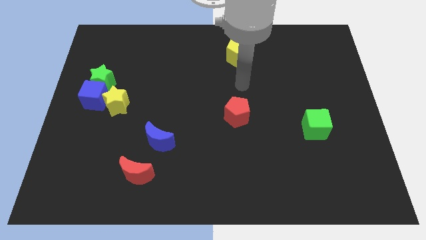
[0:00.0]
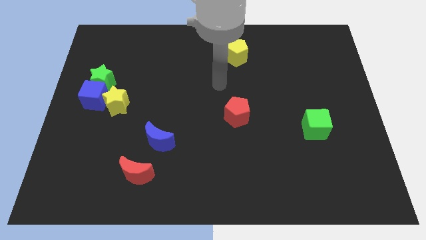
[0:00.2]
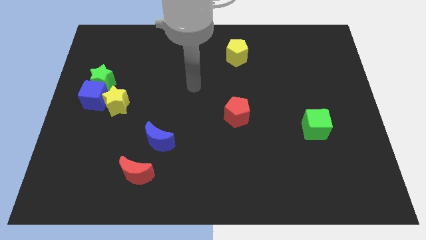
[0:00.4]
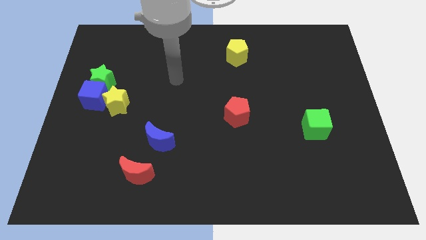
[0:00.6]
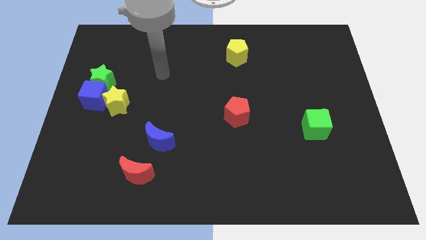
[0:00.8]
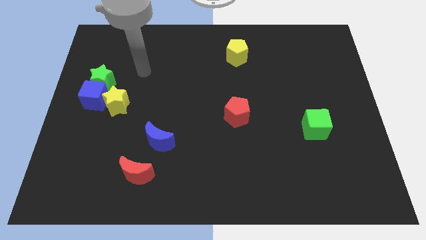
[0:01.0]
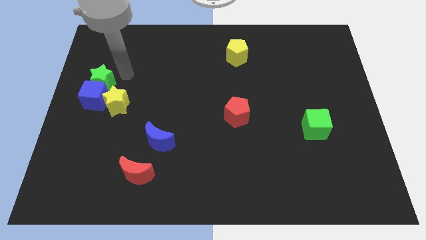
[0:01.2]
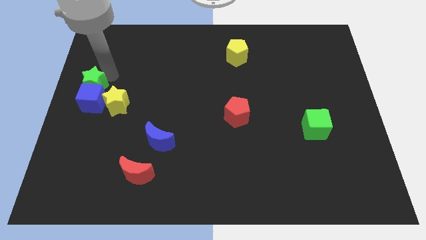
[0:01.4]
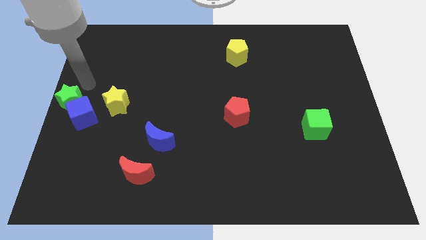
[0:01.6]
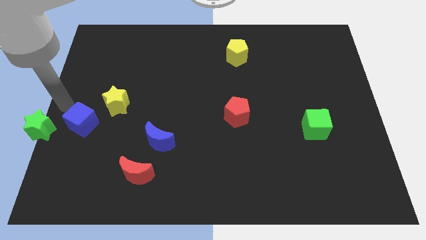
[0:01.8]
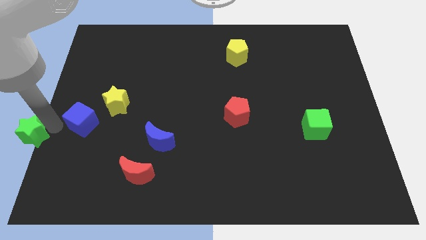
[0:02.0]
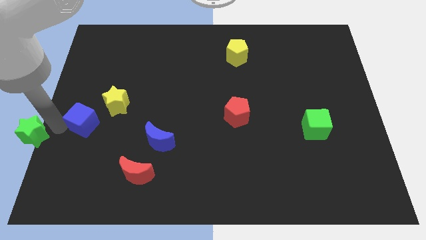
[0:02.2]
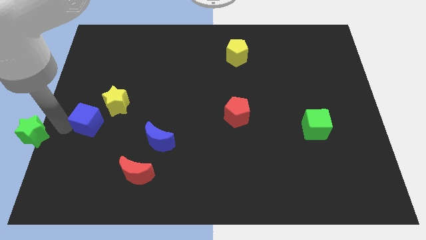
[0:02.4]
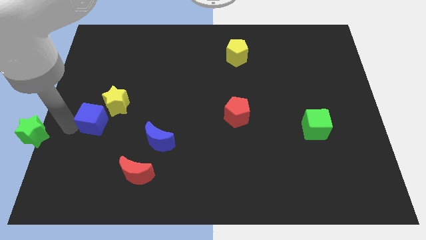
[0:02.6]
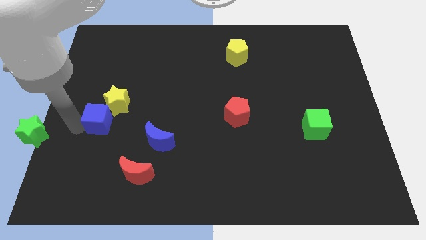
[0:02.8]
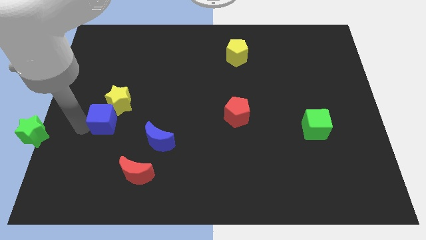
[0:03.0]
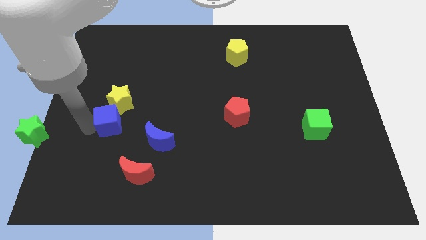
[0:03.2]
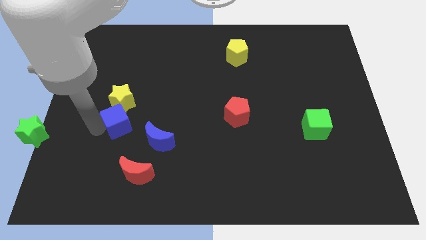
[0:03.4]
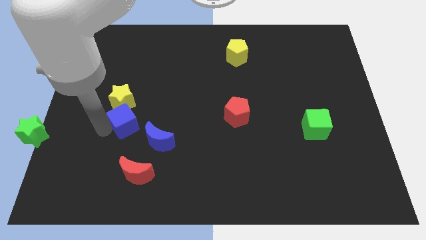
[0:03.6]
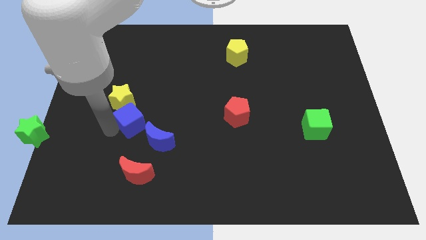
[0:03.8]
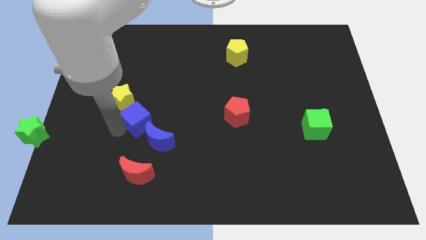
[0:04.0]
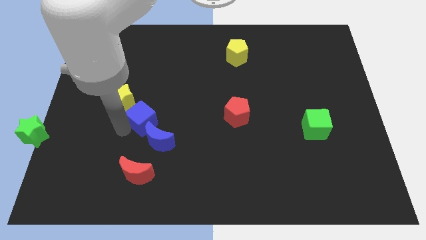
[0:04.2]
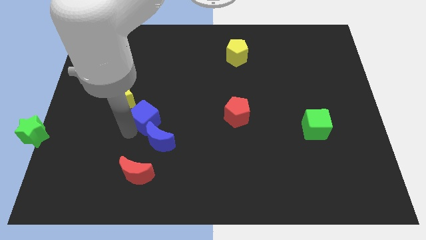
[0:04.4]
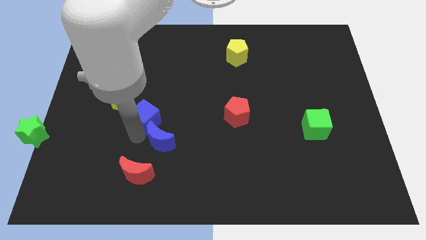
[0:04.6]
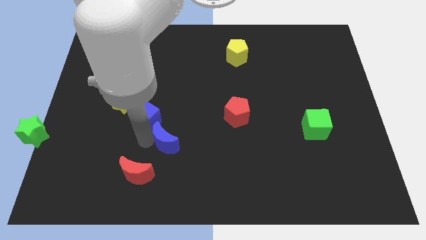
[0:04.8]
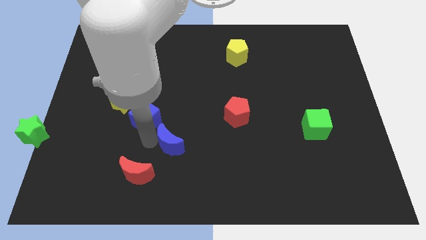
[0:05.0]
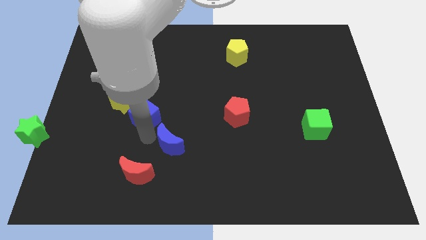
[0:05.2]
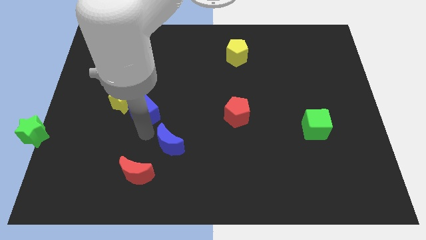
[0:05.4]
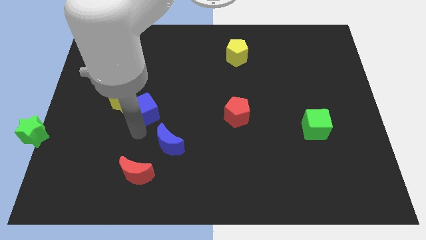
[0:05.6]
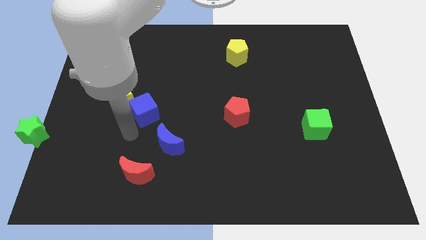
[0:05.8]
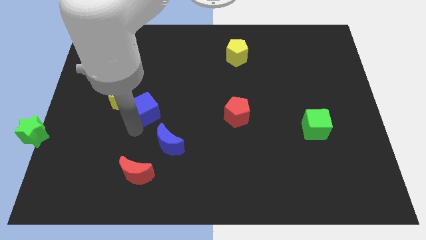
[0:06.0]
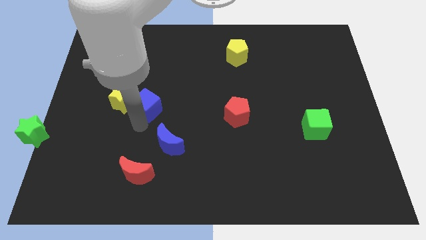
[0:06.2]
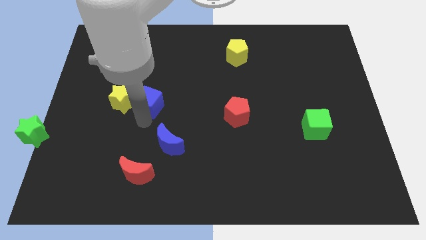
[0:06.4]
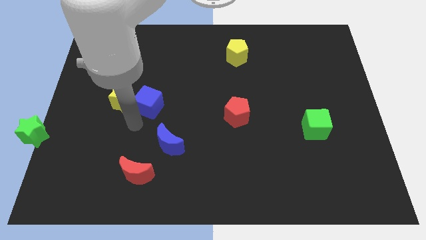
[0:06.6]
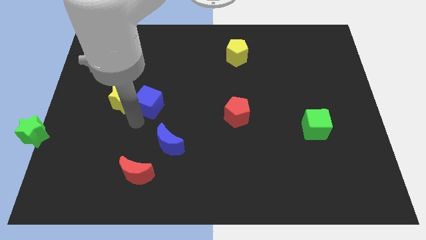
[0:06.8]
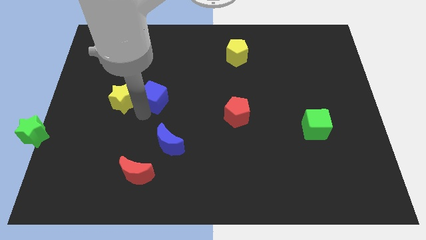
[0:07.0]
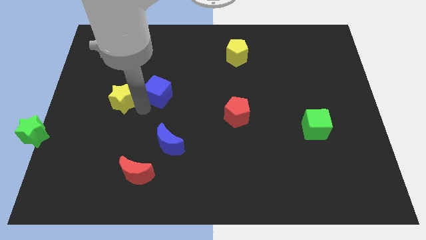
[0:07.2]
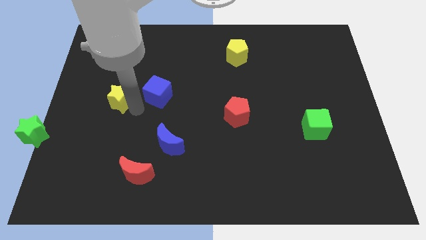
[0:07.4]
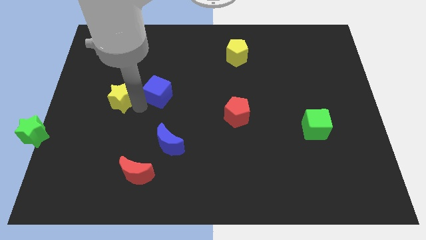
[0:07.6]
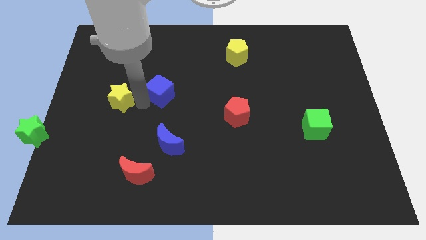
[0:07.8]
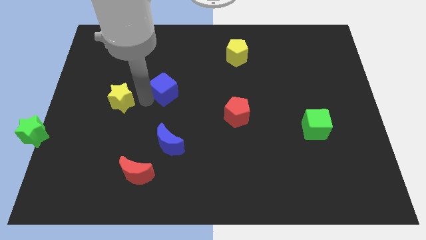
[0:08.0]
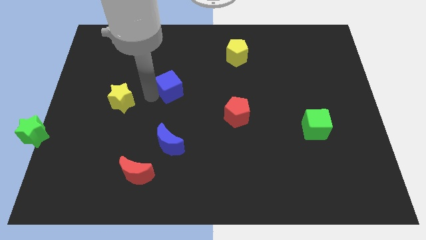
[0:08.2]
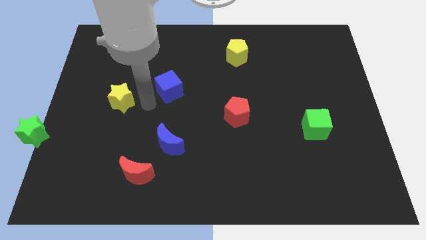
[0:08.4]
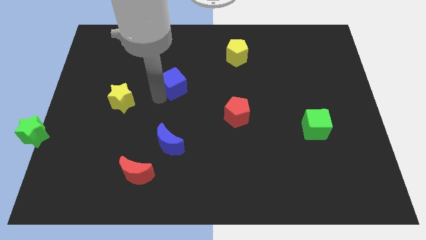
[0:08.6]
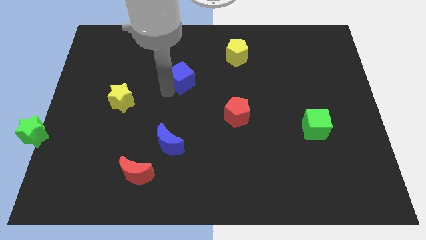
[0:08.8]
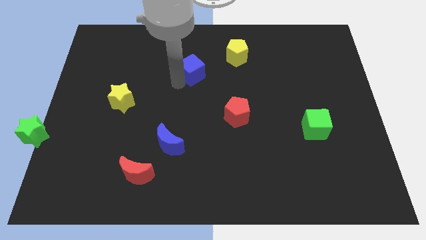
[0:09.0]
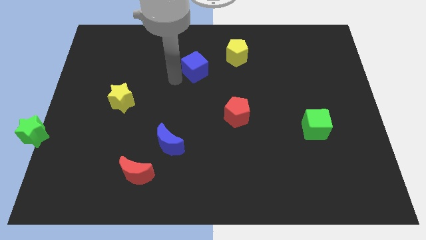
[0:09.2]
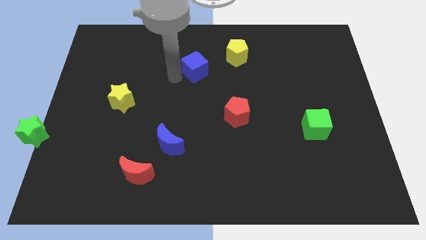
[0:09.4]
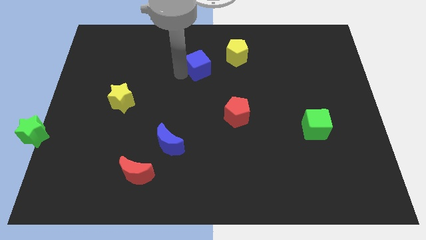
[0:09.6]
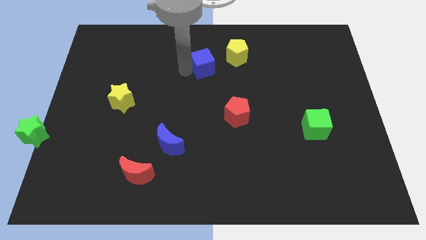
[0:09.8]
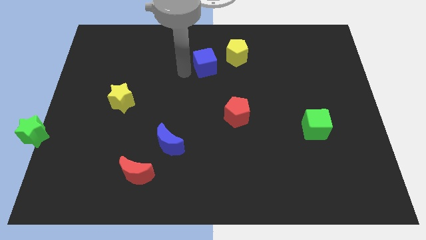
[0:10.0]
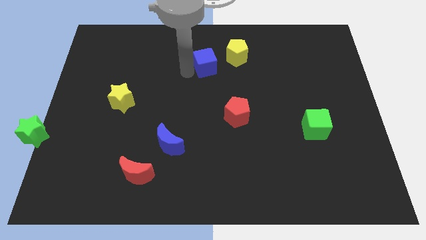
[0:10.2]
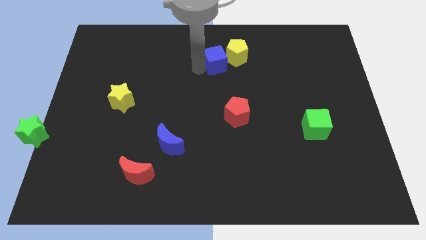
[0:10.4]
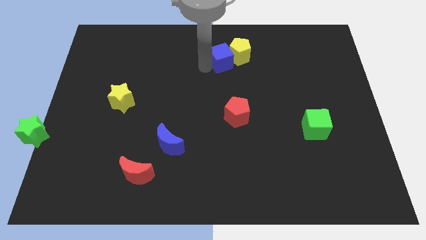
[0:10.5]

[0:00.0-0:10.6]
put the blue cube towards the yellow pentagon

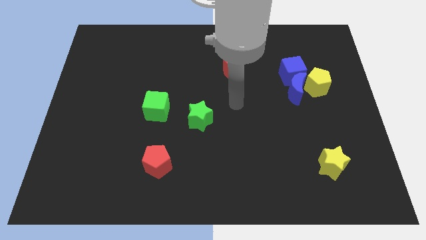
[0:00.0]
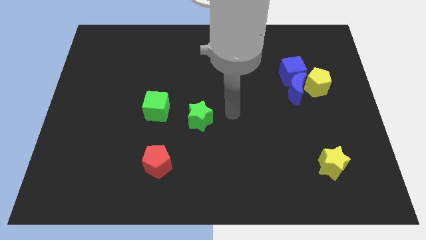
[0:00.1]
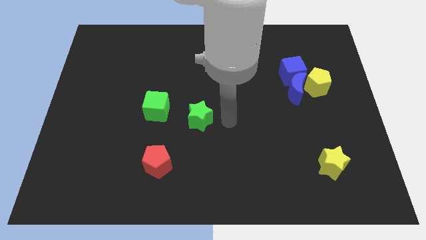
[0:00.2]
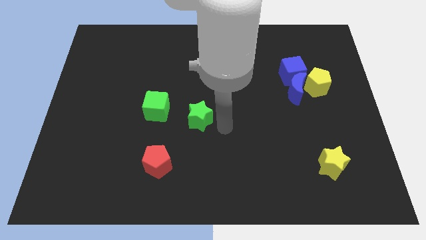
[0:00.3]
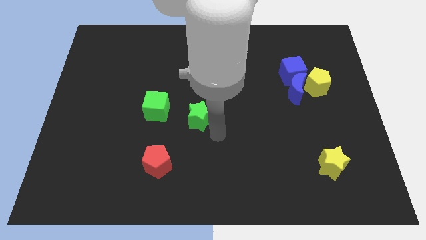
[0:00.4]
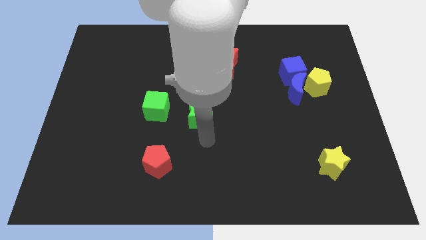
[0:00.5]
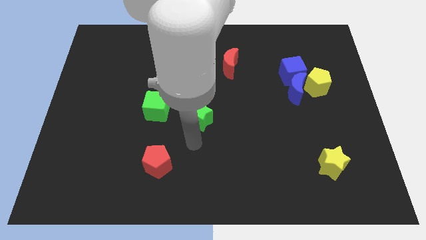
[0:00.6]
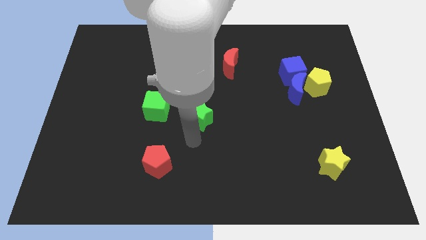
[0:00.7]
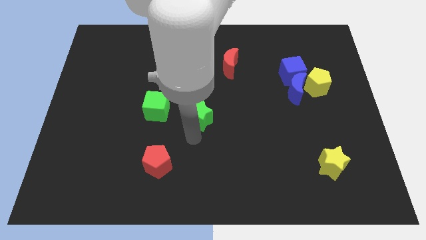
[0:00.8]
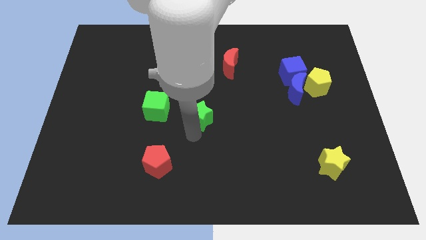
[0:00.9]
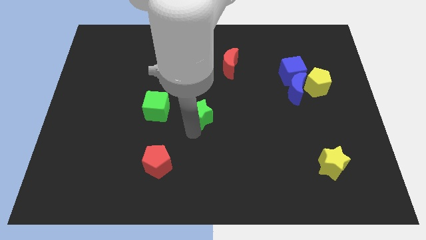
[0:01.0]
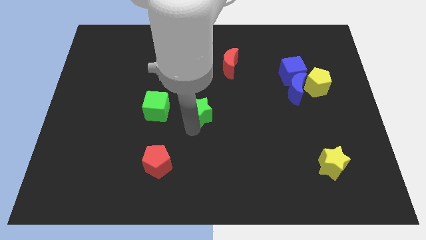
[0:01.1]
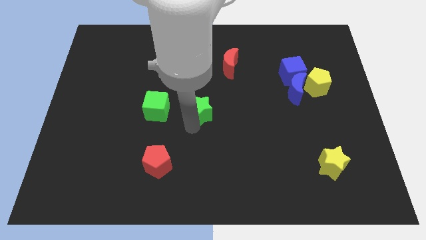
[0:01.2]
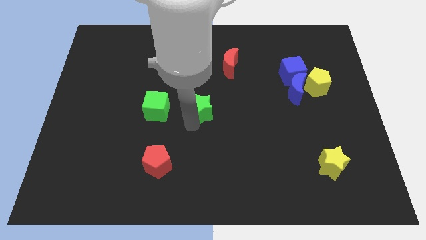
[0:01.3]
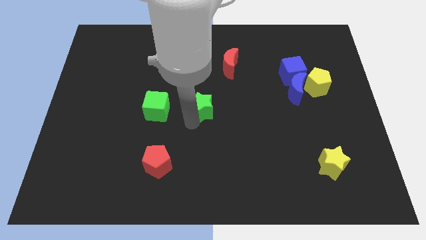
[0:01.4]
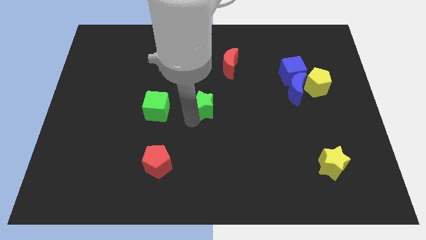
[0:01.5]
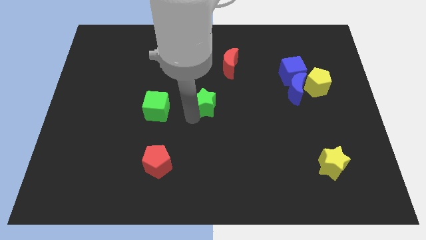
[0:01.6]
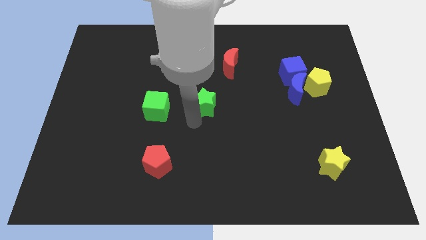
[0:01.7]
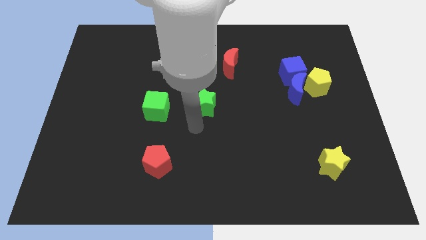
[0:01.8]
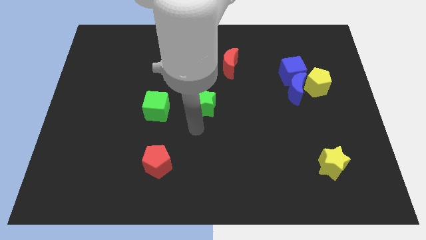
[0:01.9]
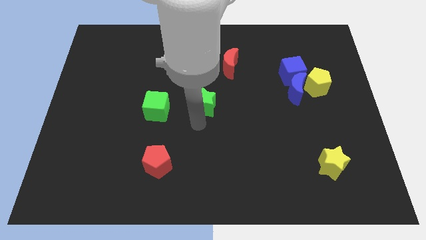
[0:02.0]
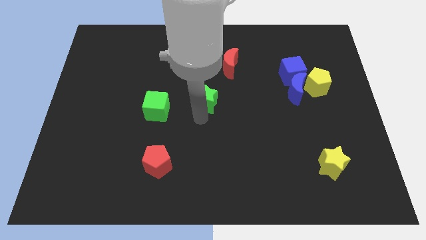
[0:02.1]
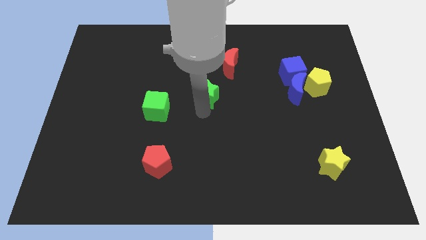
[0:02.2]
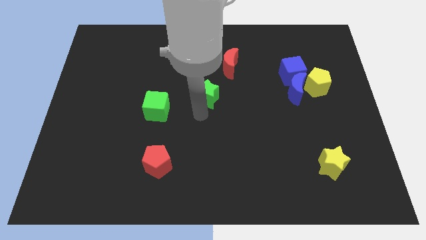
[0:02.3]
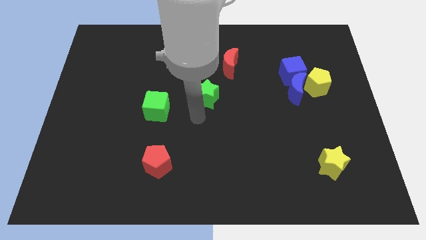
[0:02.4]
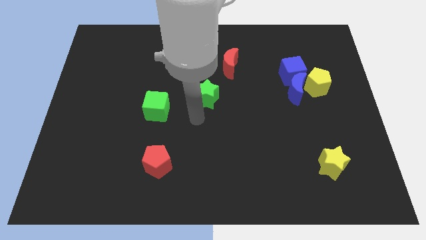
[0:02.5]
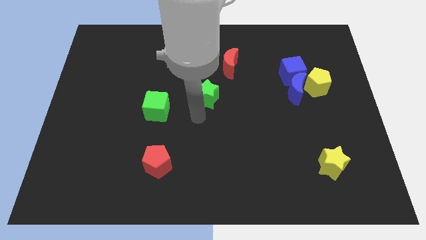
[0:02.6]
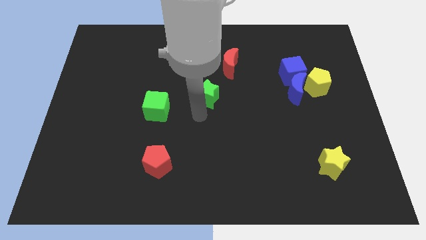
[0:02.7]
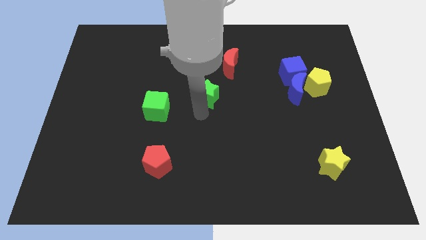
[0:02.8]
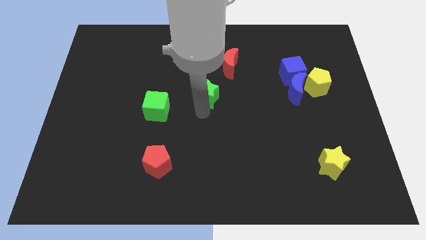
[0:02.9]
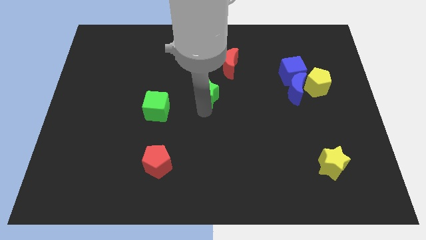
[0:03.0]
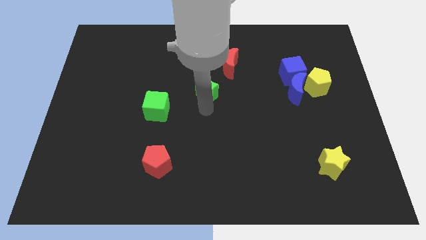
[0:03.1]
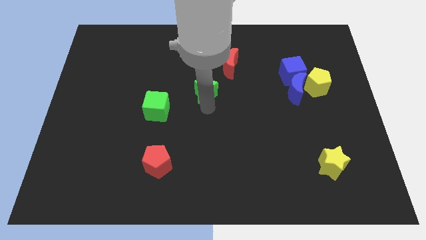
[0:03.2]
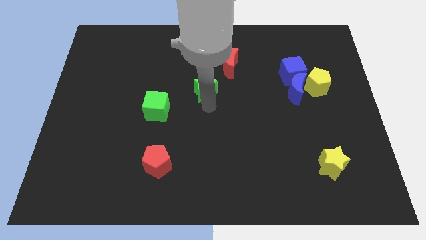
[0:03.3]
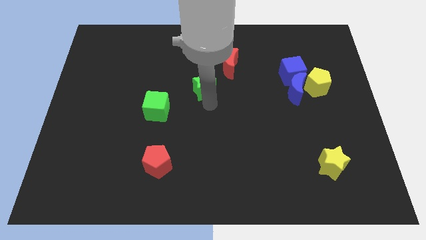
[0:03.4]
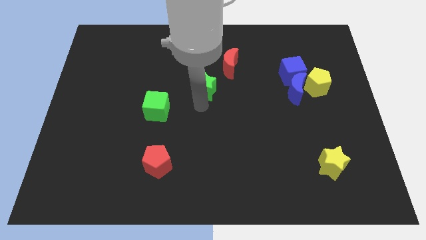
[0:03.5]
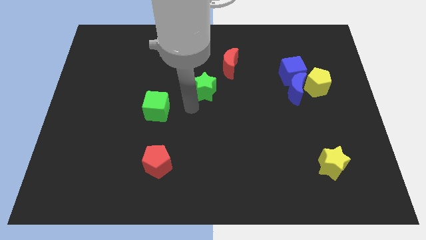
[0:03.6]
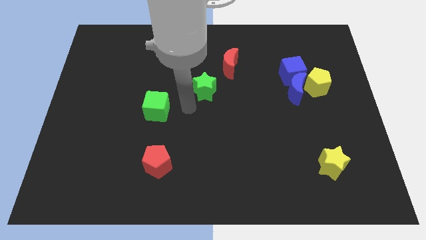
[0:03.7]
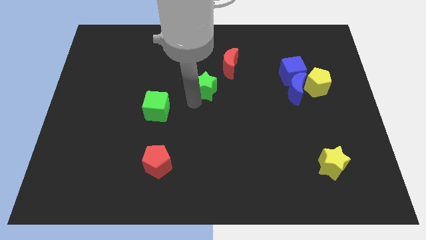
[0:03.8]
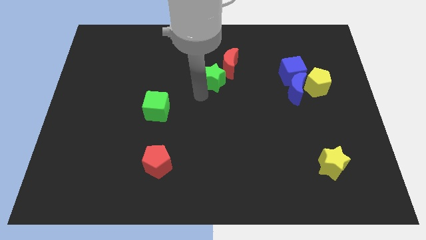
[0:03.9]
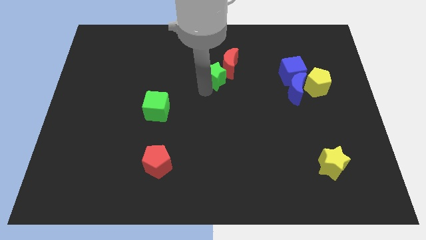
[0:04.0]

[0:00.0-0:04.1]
slide the green star next to the red moon
